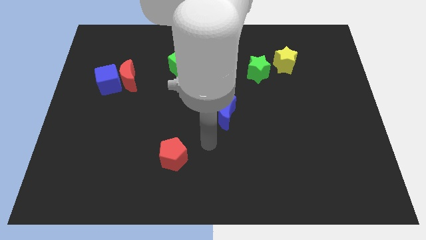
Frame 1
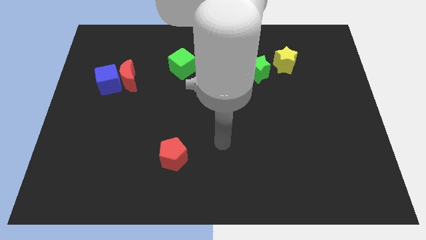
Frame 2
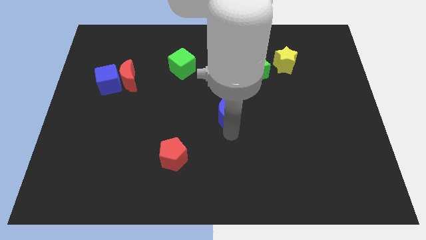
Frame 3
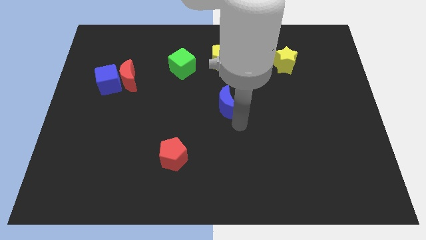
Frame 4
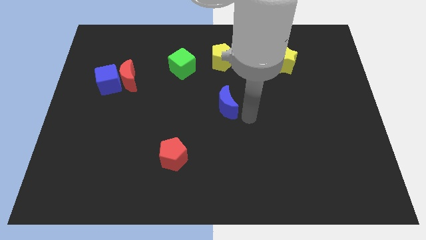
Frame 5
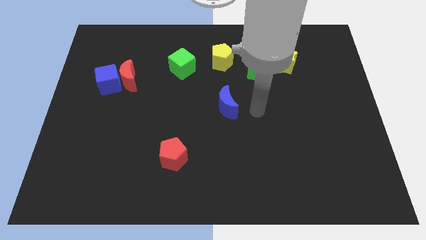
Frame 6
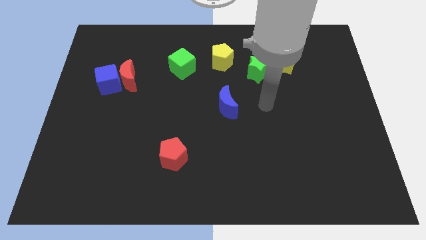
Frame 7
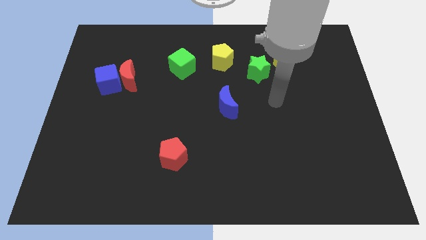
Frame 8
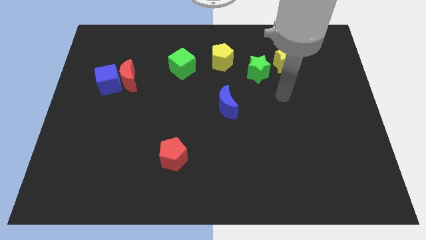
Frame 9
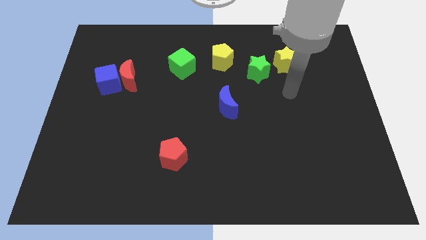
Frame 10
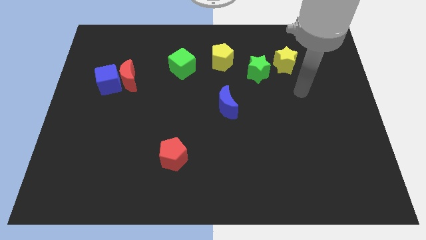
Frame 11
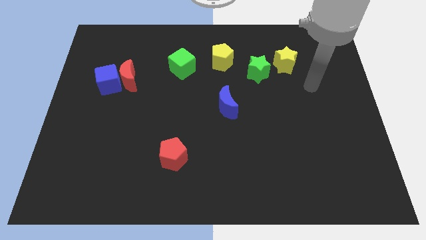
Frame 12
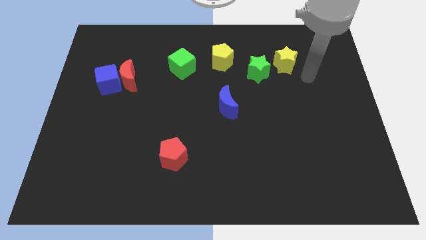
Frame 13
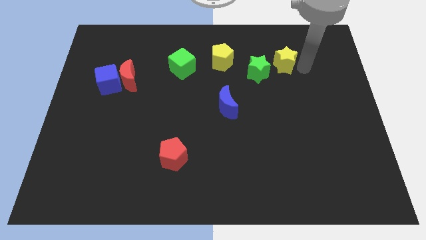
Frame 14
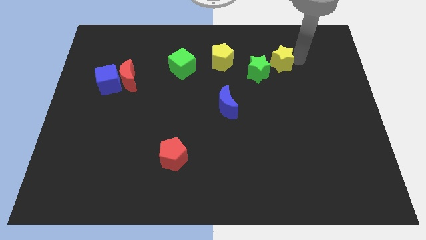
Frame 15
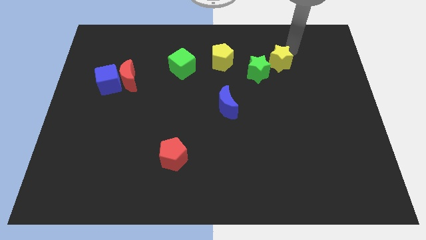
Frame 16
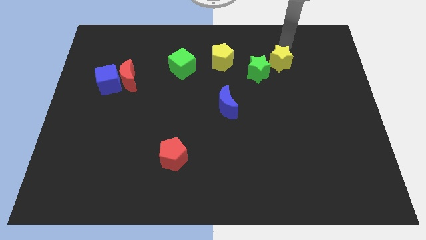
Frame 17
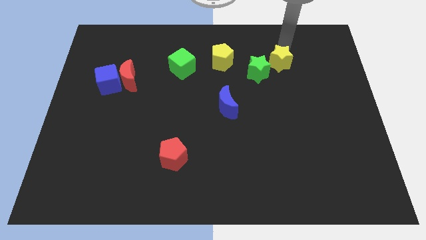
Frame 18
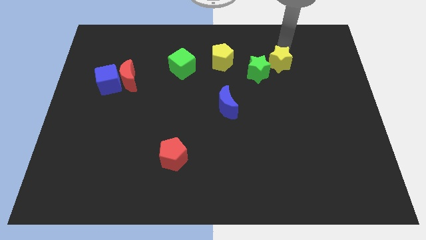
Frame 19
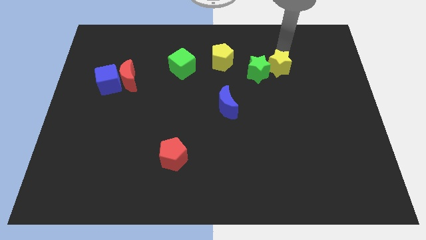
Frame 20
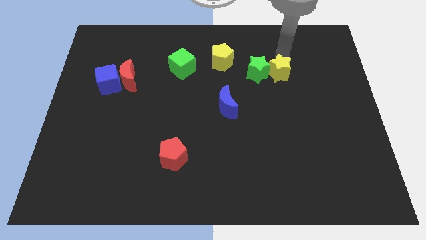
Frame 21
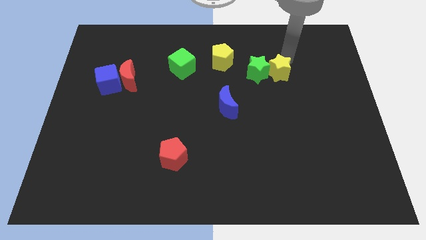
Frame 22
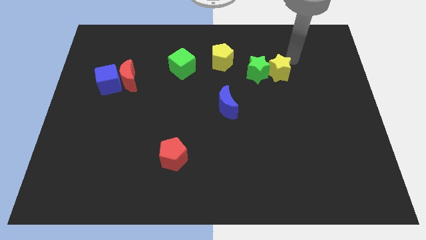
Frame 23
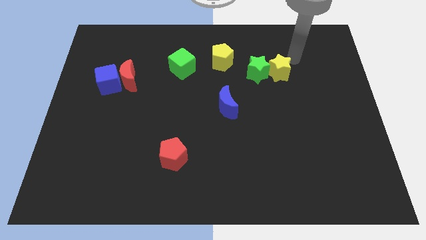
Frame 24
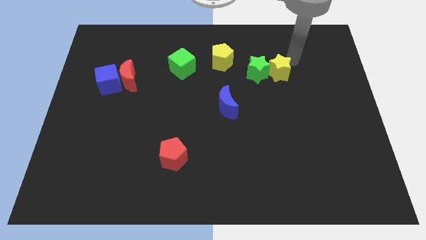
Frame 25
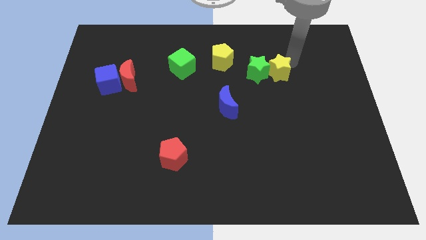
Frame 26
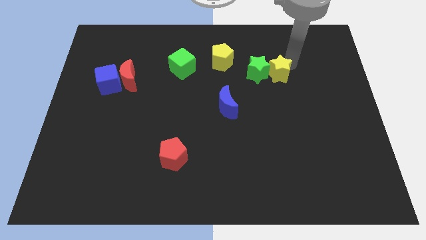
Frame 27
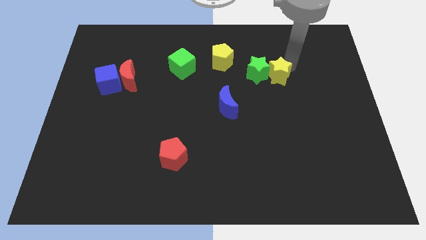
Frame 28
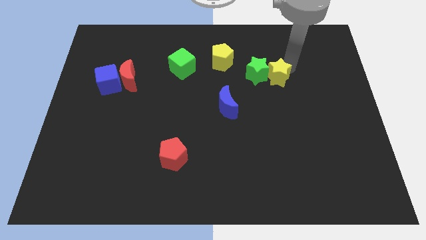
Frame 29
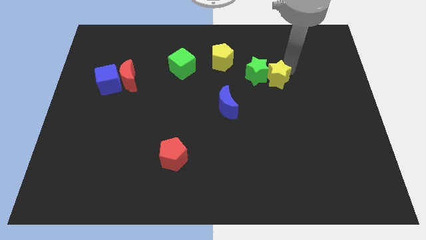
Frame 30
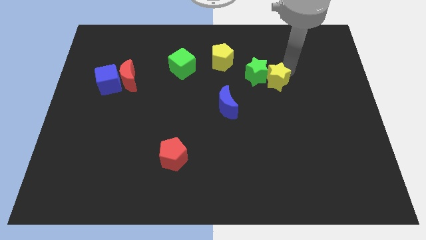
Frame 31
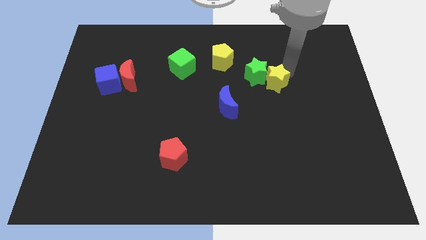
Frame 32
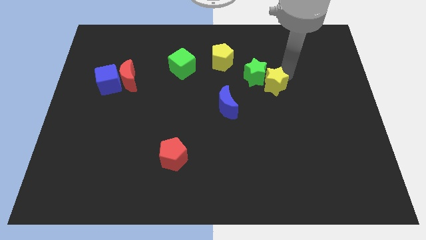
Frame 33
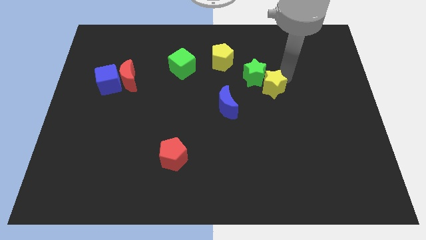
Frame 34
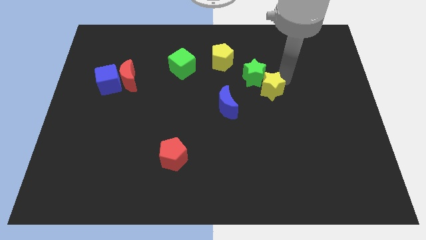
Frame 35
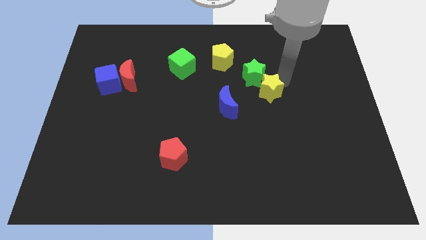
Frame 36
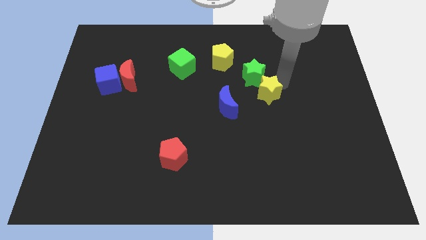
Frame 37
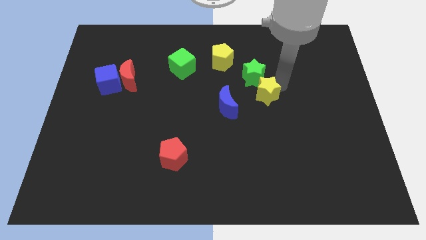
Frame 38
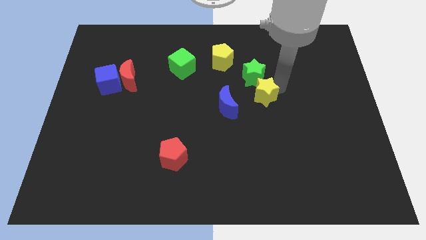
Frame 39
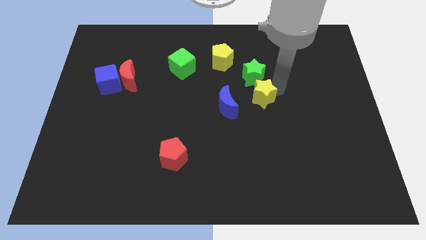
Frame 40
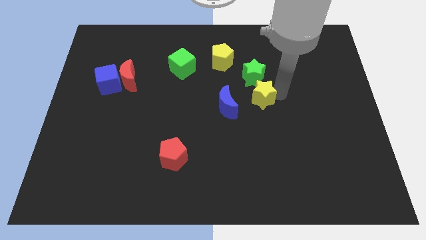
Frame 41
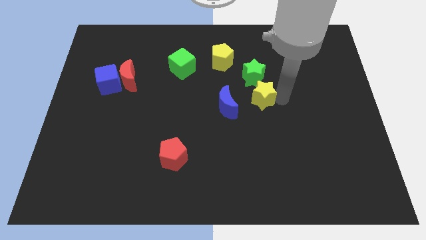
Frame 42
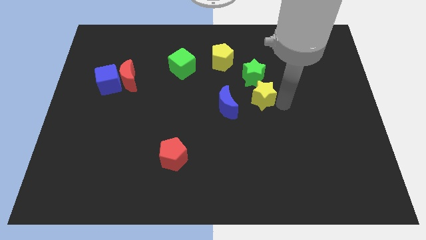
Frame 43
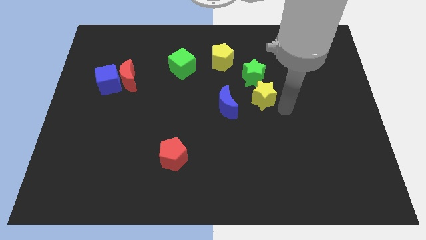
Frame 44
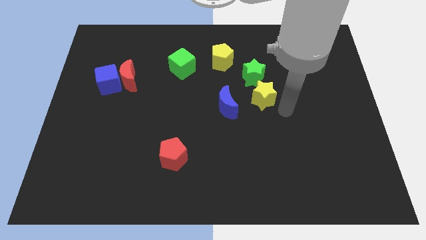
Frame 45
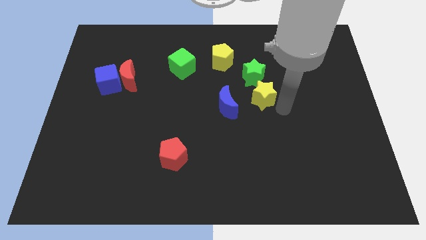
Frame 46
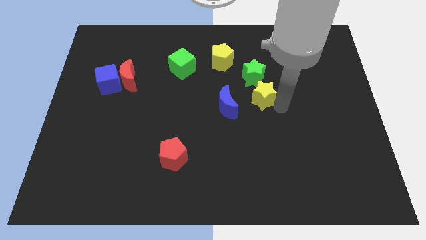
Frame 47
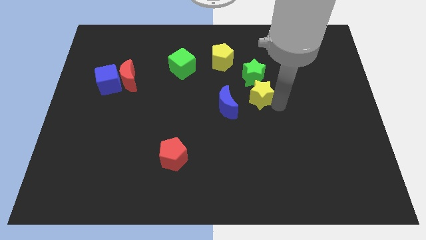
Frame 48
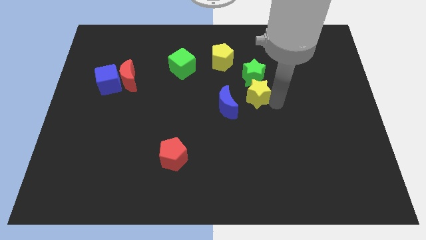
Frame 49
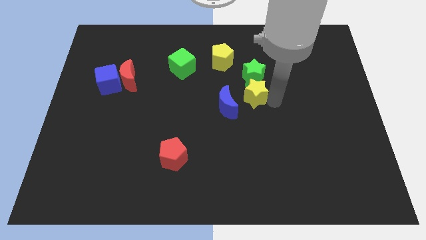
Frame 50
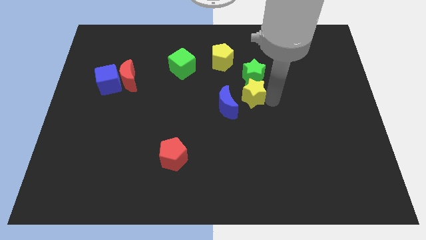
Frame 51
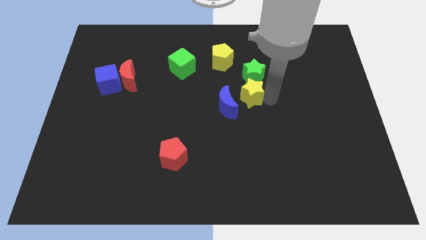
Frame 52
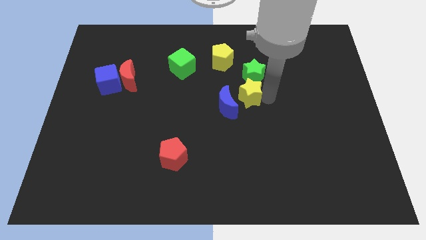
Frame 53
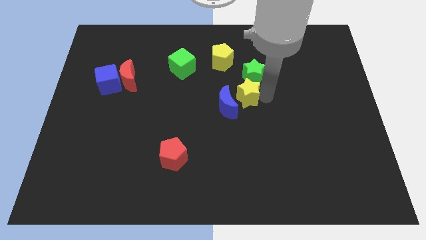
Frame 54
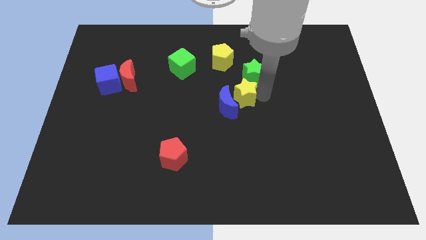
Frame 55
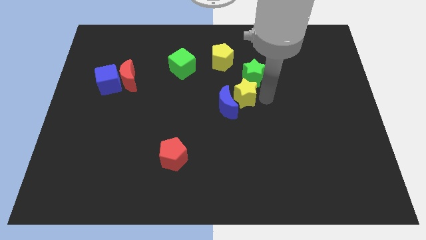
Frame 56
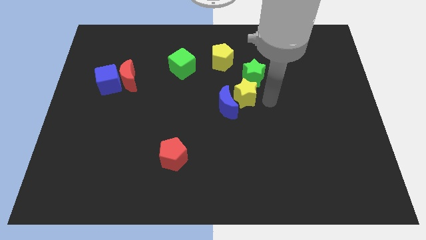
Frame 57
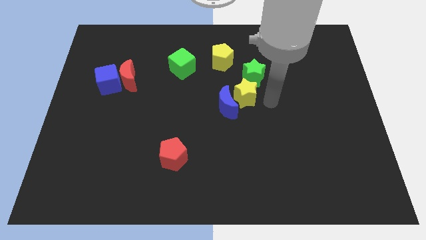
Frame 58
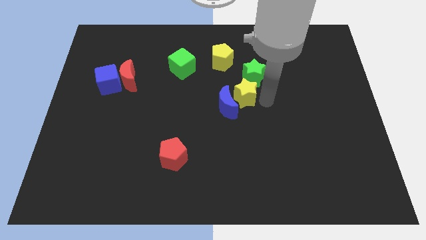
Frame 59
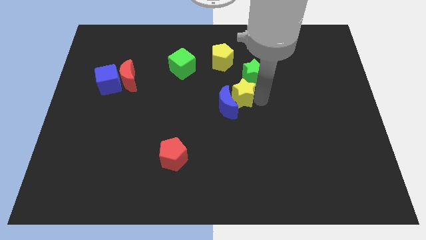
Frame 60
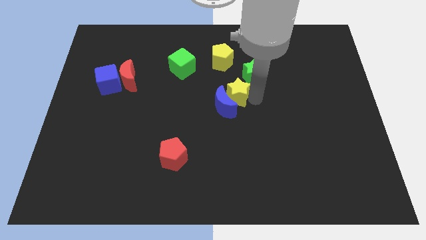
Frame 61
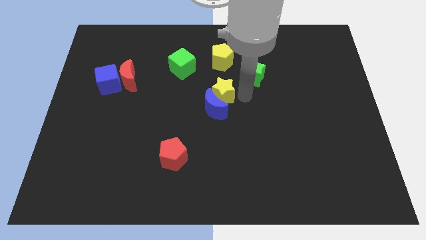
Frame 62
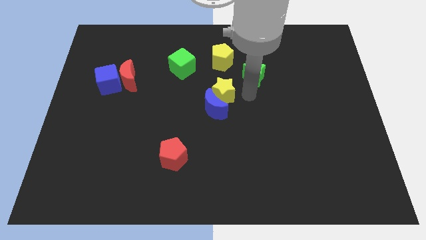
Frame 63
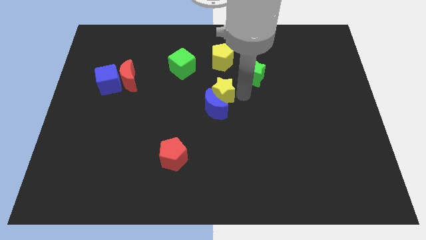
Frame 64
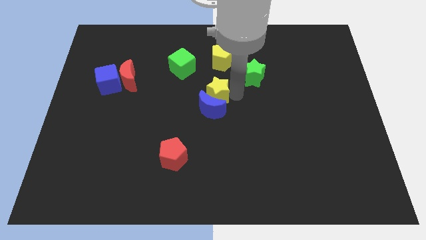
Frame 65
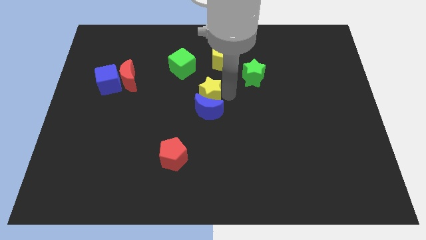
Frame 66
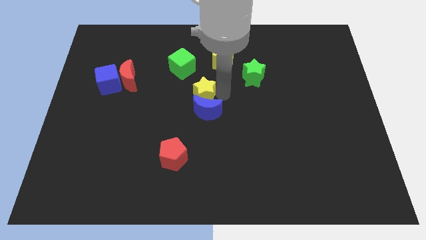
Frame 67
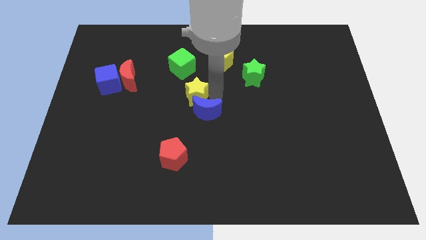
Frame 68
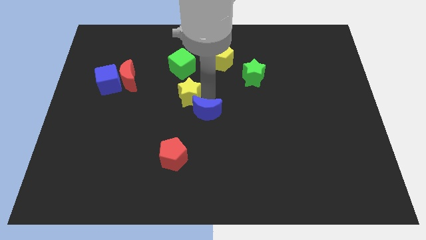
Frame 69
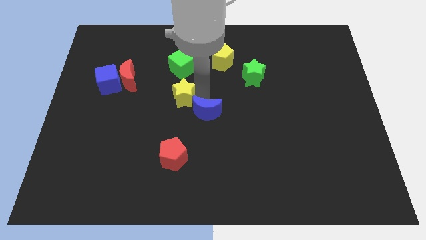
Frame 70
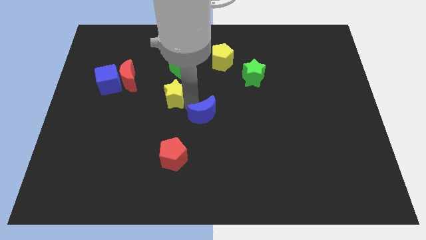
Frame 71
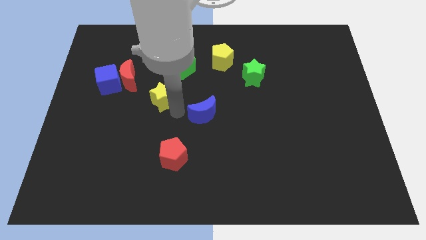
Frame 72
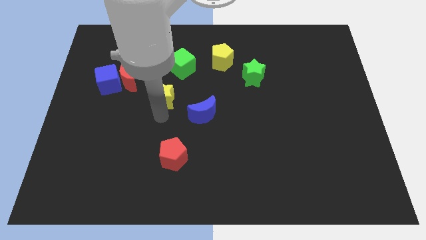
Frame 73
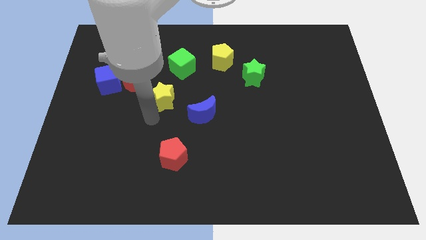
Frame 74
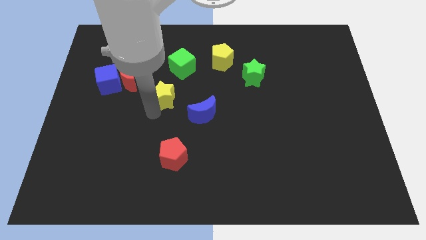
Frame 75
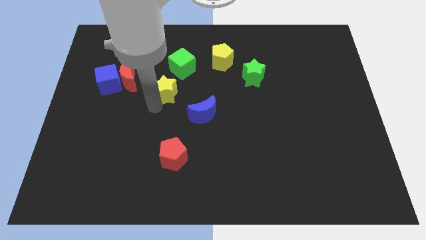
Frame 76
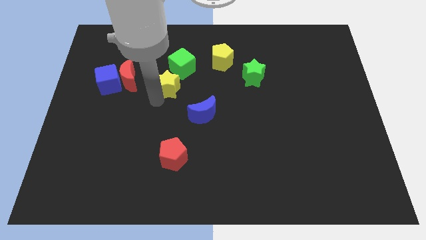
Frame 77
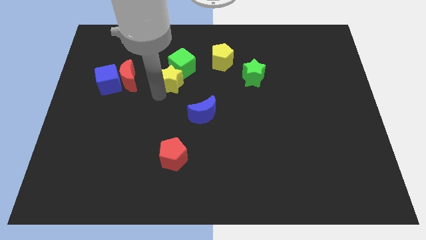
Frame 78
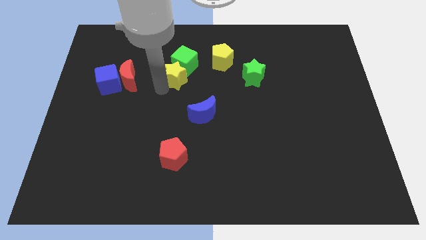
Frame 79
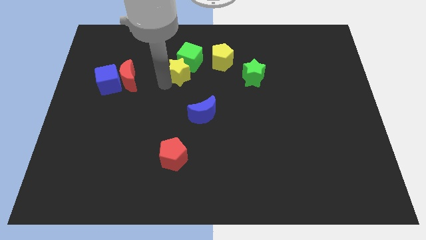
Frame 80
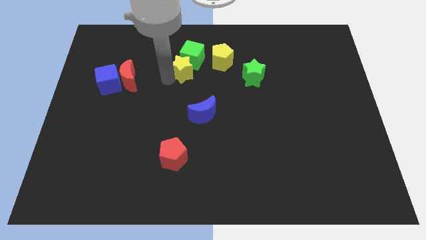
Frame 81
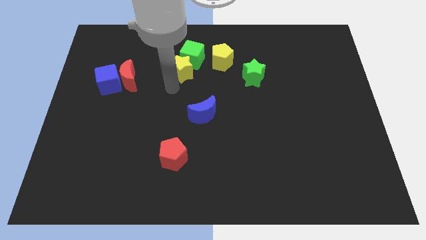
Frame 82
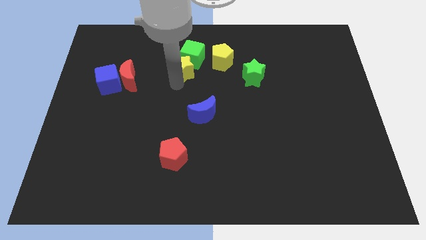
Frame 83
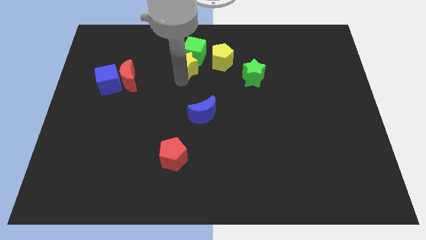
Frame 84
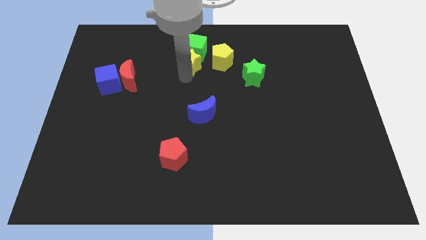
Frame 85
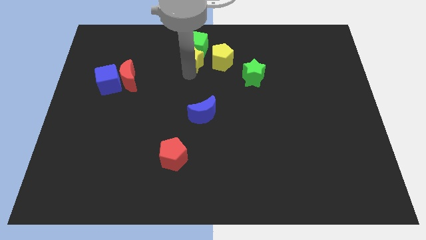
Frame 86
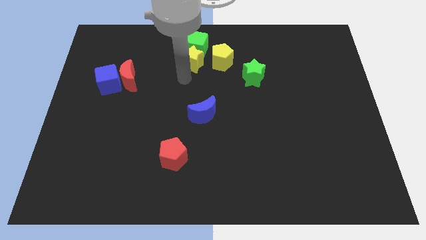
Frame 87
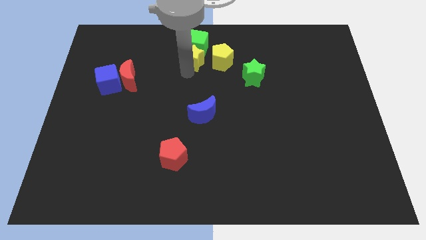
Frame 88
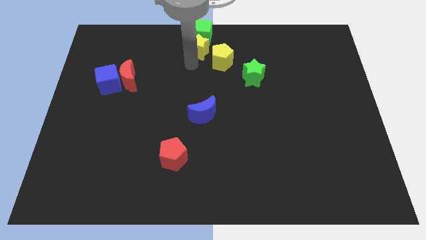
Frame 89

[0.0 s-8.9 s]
move the yellow star to the top
